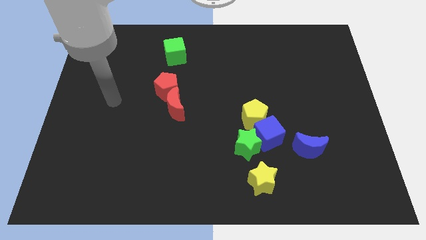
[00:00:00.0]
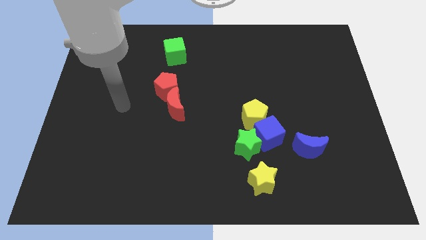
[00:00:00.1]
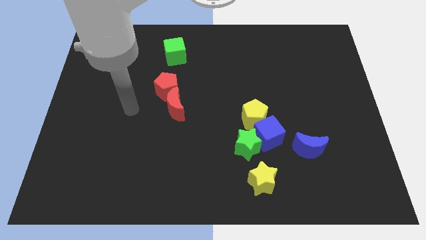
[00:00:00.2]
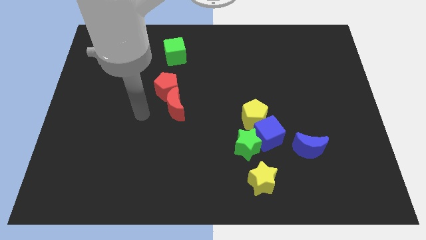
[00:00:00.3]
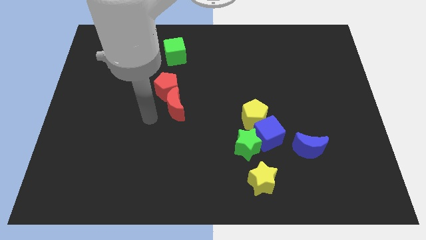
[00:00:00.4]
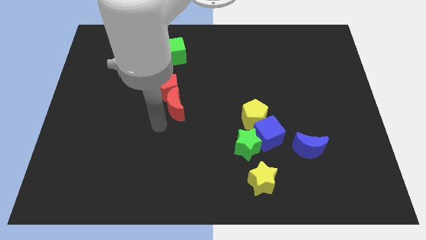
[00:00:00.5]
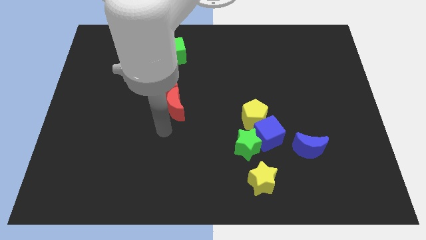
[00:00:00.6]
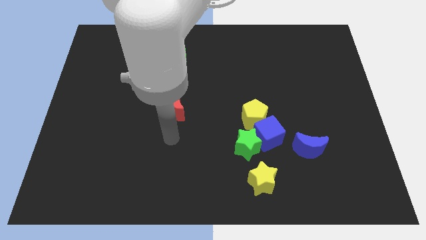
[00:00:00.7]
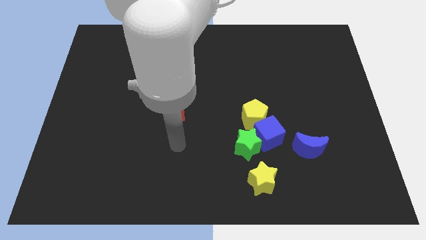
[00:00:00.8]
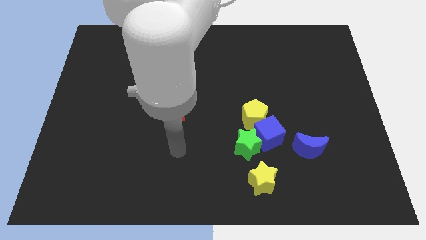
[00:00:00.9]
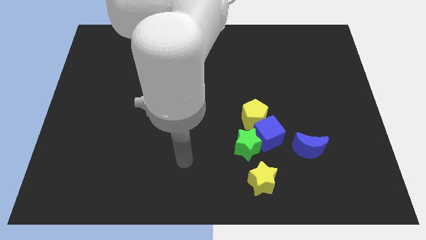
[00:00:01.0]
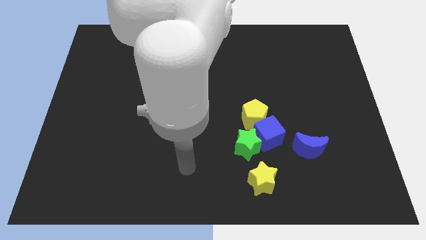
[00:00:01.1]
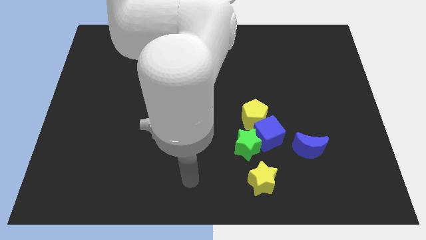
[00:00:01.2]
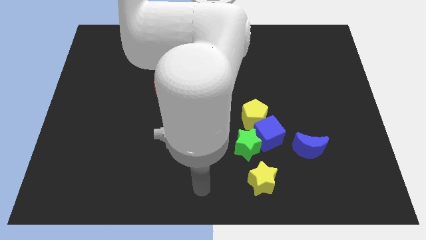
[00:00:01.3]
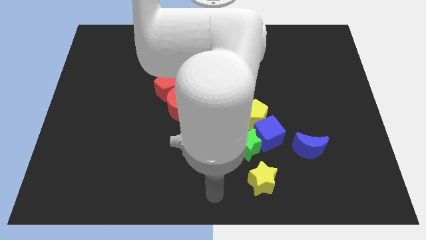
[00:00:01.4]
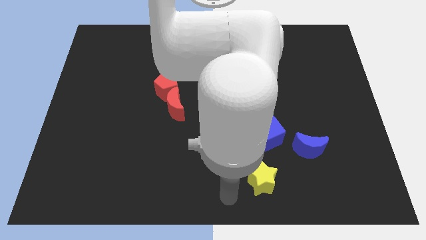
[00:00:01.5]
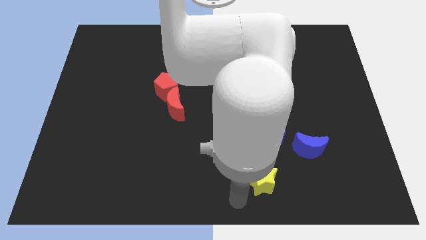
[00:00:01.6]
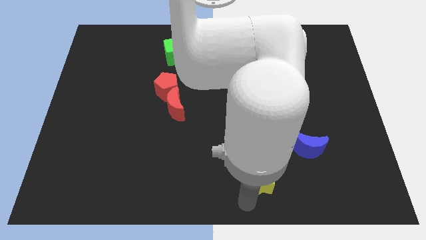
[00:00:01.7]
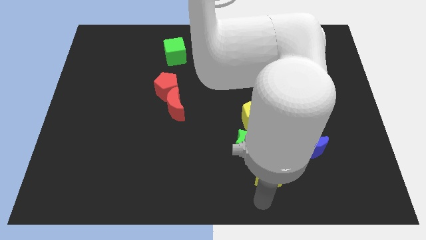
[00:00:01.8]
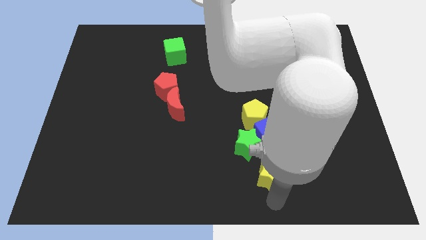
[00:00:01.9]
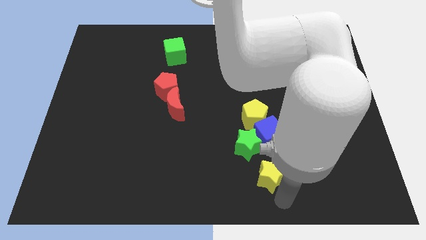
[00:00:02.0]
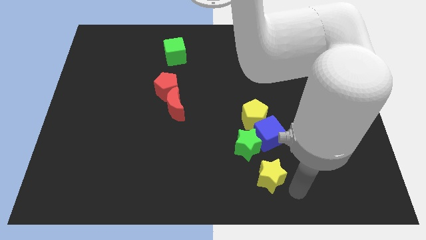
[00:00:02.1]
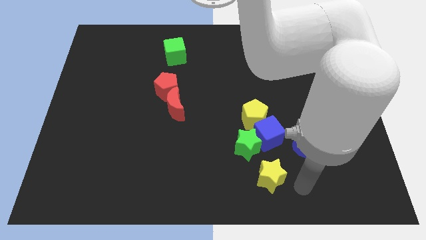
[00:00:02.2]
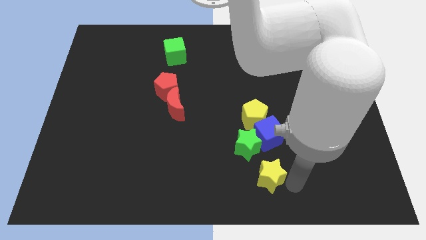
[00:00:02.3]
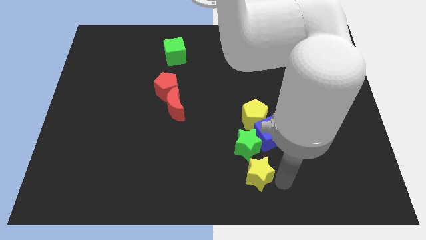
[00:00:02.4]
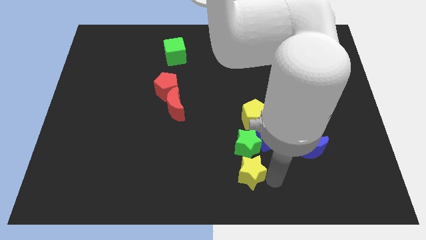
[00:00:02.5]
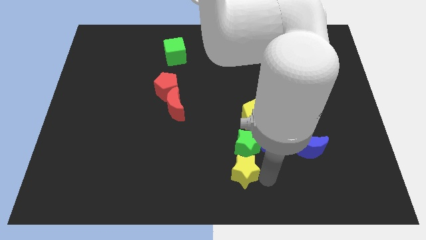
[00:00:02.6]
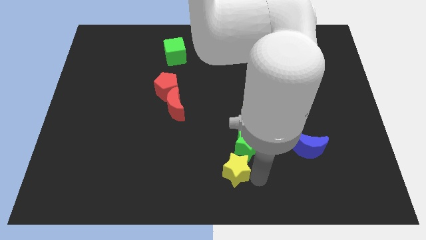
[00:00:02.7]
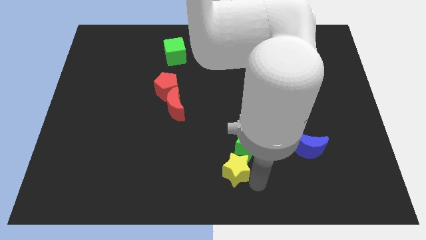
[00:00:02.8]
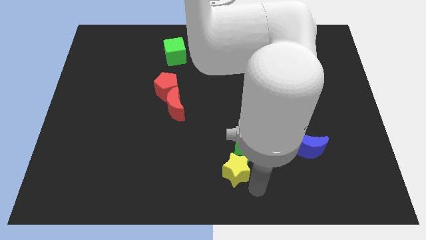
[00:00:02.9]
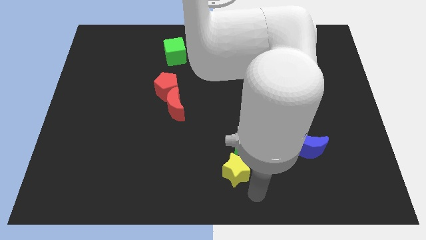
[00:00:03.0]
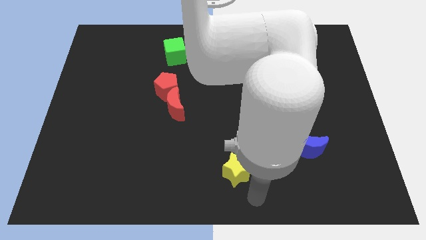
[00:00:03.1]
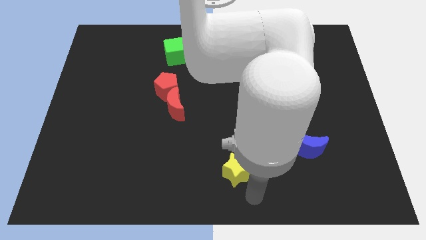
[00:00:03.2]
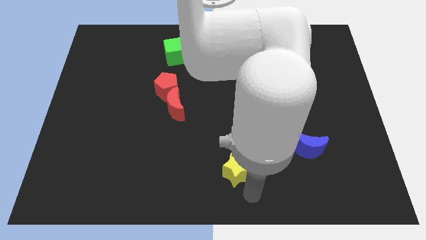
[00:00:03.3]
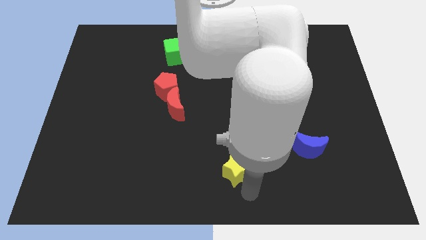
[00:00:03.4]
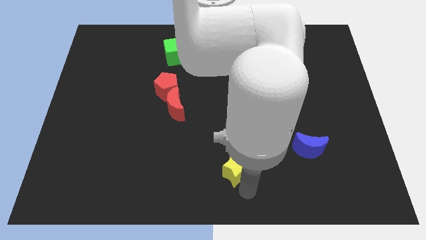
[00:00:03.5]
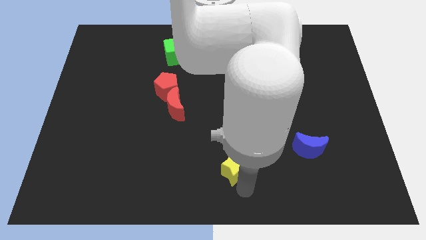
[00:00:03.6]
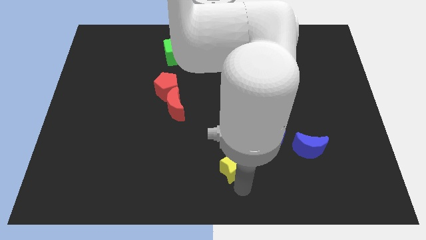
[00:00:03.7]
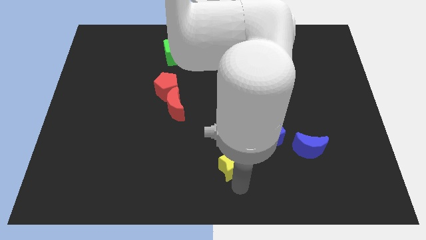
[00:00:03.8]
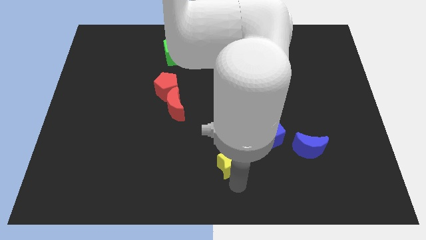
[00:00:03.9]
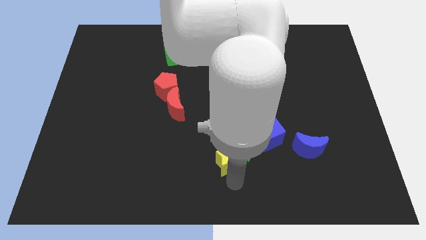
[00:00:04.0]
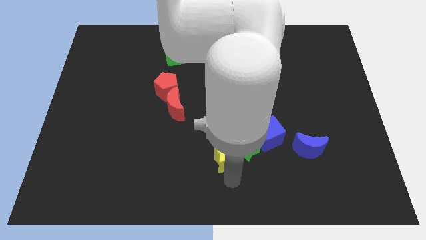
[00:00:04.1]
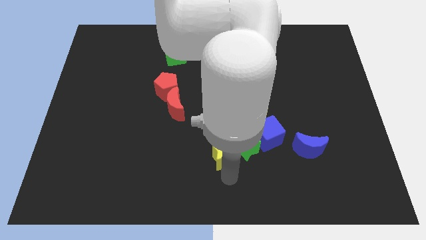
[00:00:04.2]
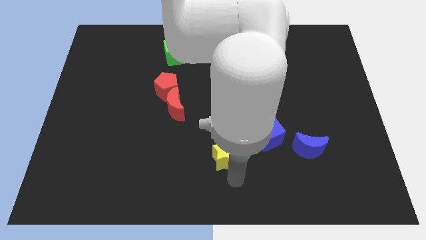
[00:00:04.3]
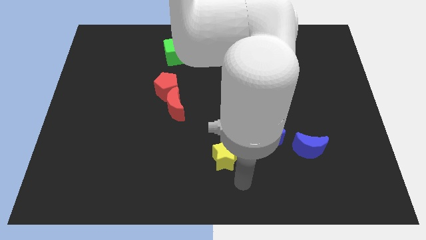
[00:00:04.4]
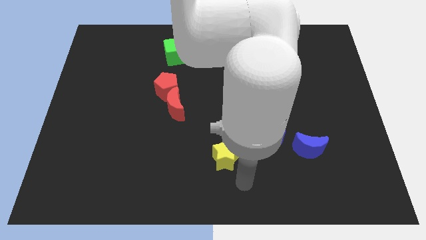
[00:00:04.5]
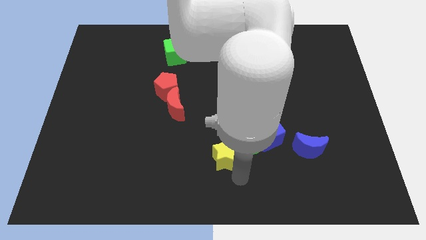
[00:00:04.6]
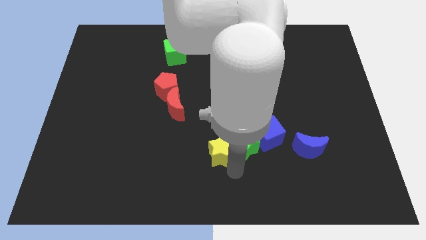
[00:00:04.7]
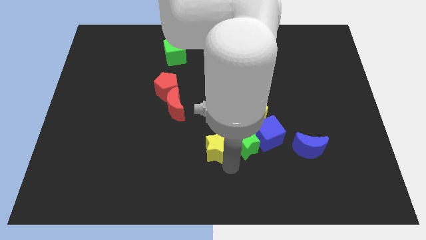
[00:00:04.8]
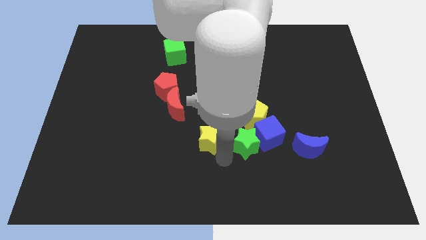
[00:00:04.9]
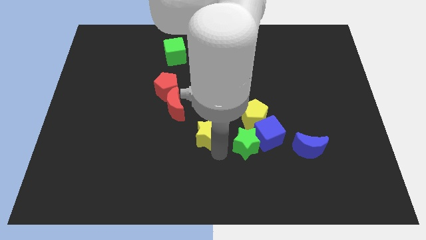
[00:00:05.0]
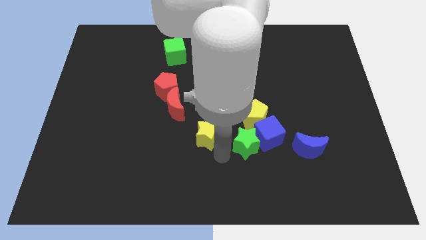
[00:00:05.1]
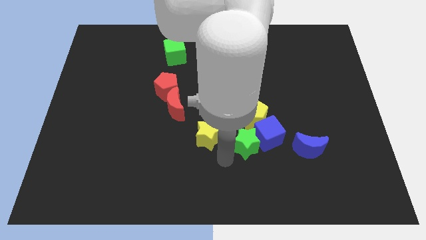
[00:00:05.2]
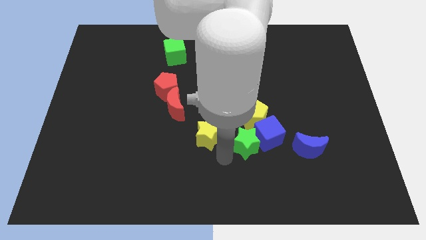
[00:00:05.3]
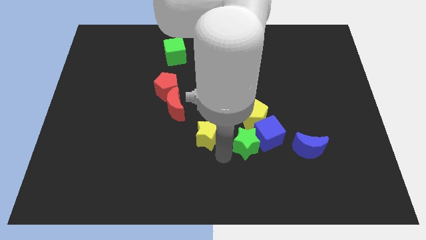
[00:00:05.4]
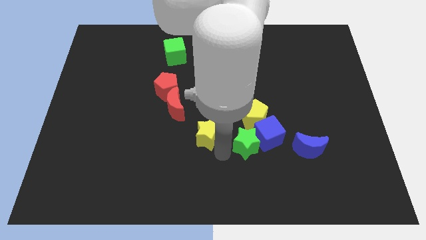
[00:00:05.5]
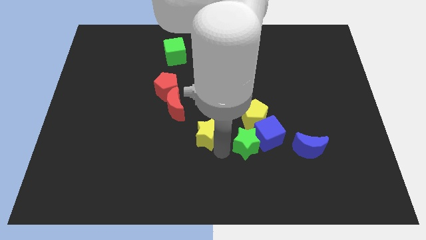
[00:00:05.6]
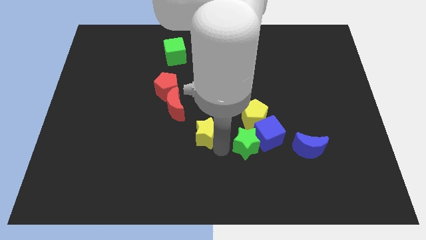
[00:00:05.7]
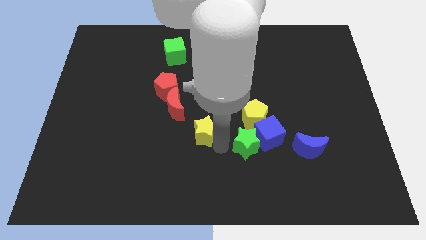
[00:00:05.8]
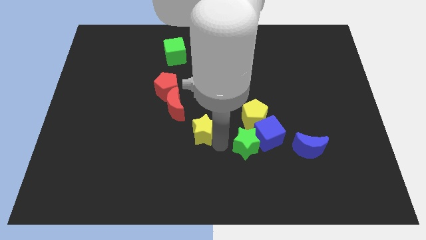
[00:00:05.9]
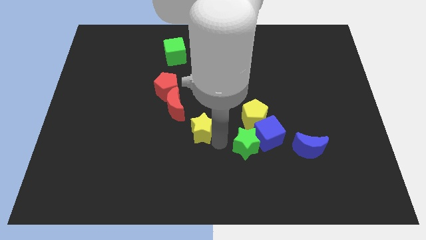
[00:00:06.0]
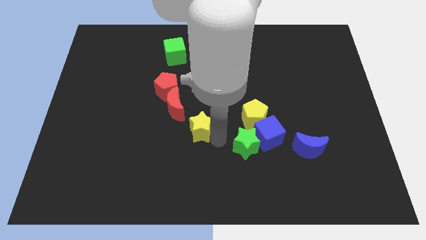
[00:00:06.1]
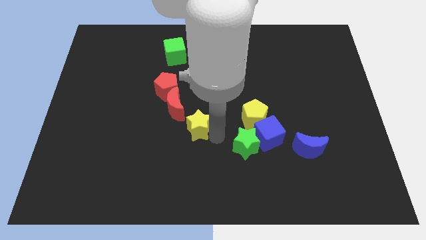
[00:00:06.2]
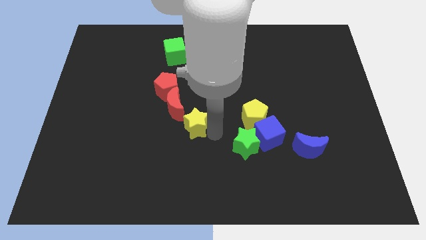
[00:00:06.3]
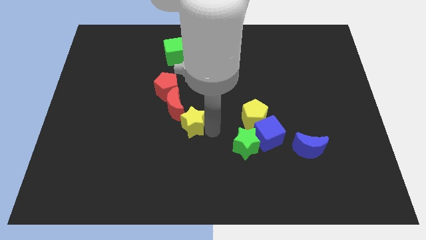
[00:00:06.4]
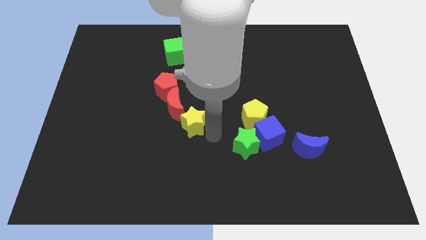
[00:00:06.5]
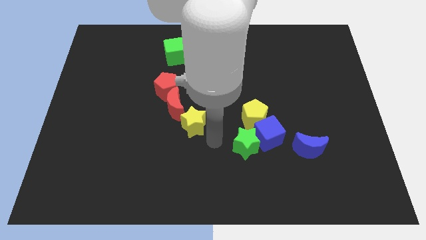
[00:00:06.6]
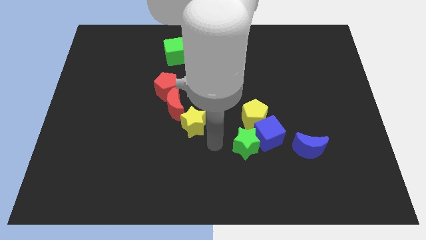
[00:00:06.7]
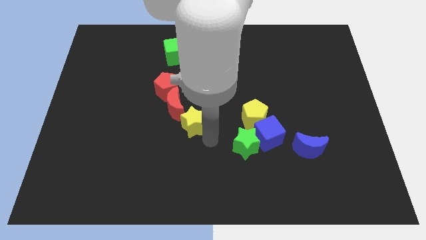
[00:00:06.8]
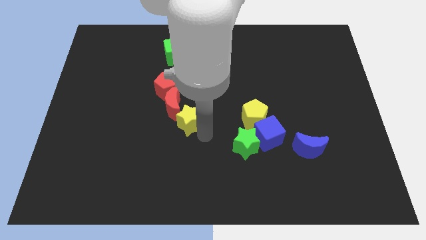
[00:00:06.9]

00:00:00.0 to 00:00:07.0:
slide the yellow star to the red moon
